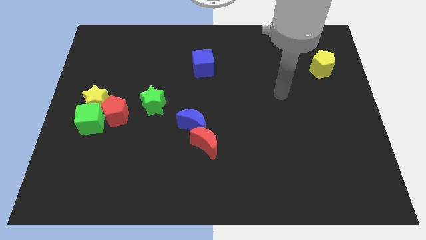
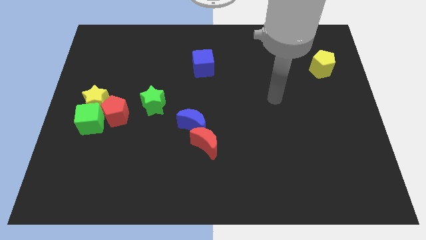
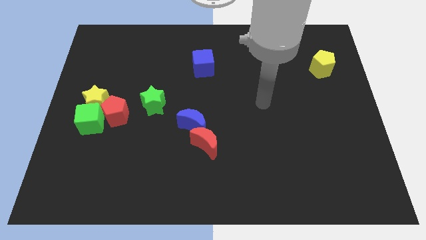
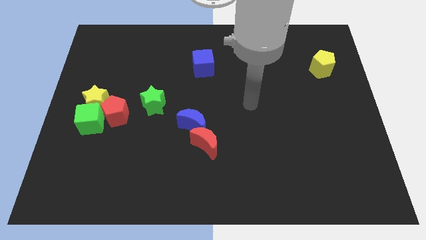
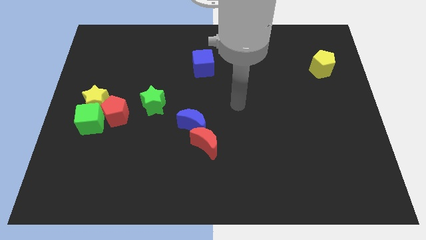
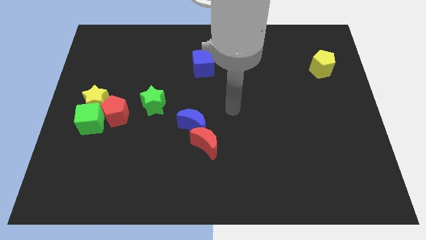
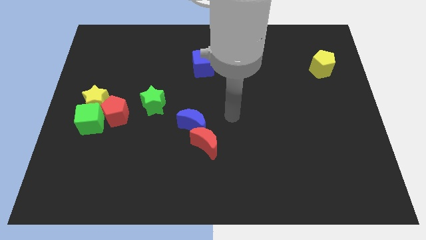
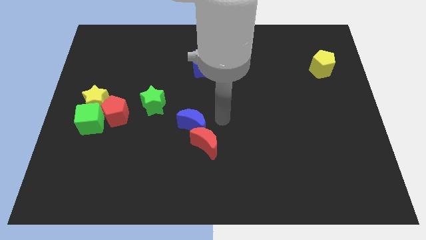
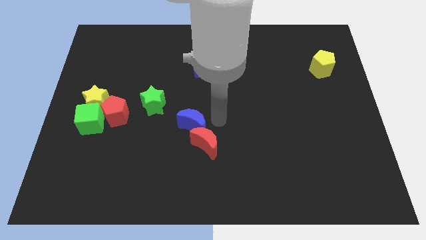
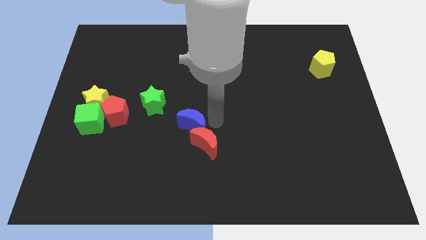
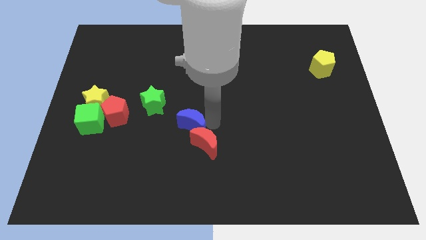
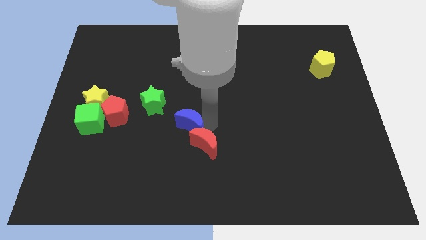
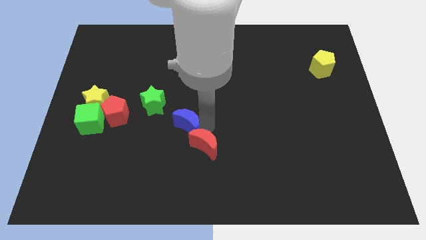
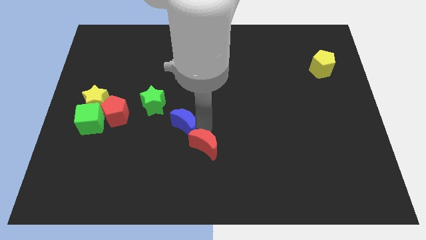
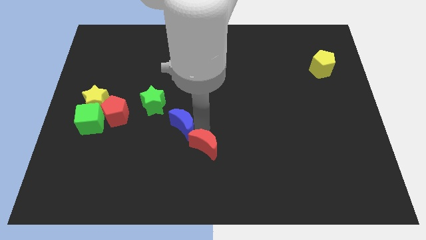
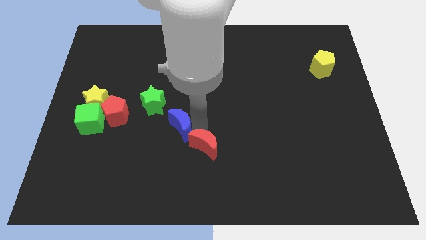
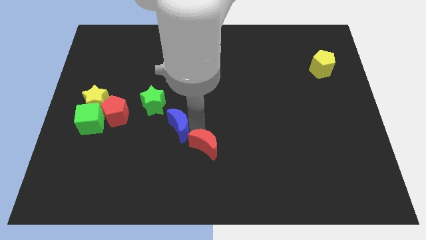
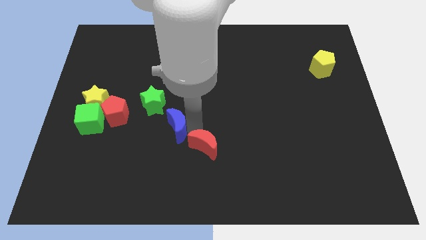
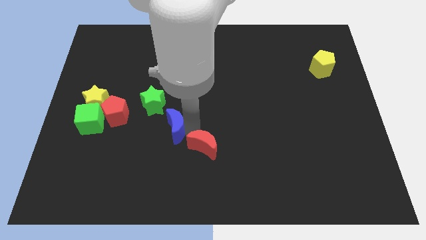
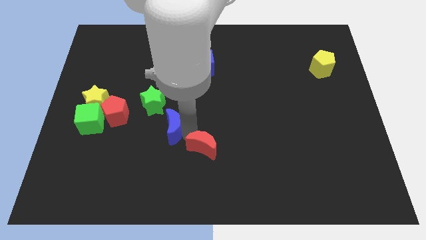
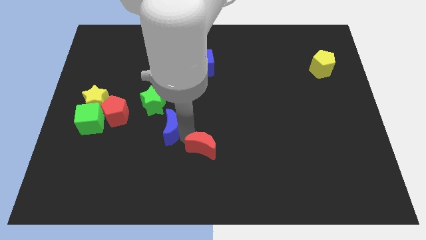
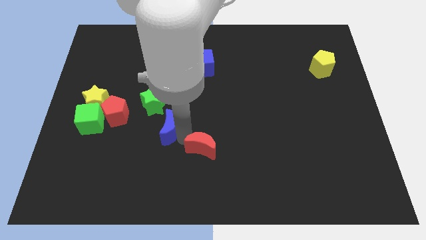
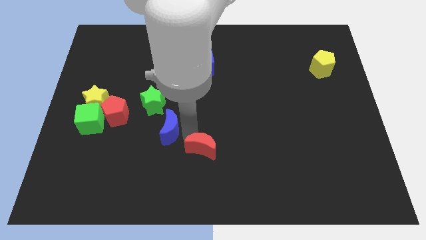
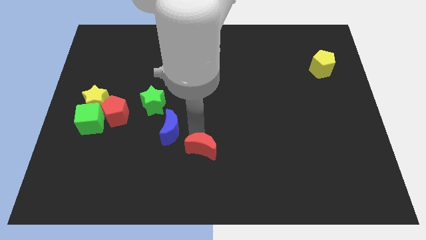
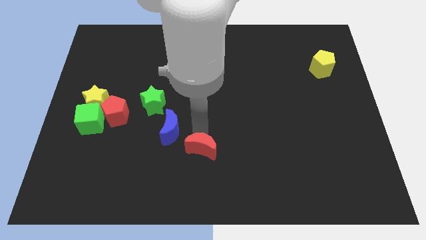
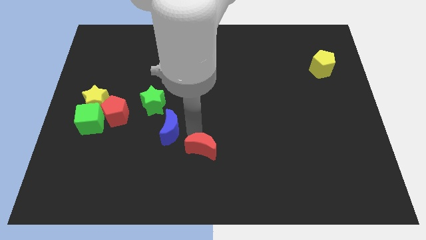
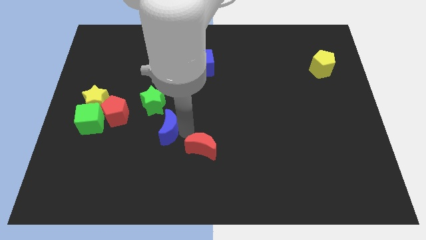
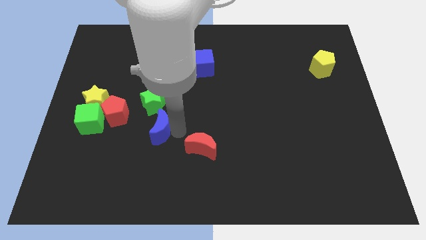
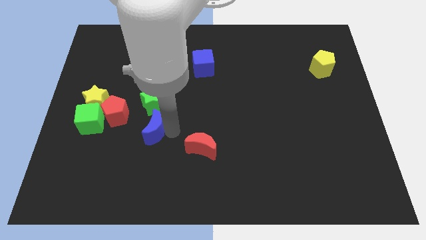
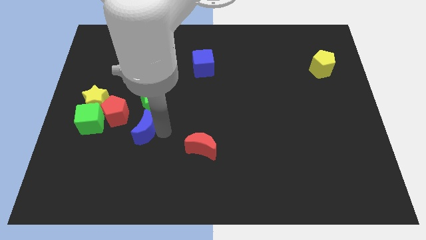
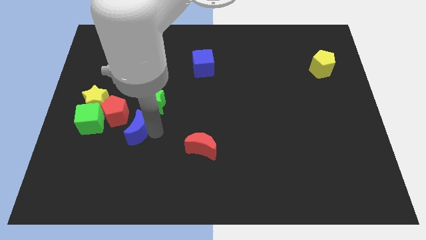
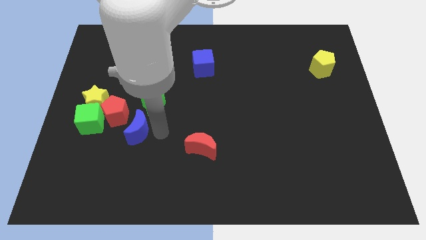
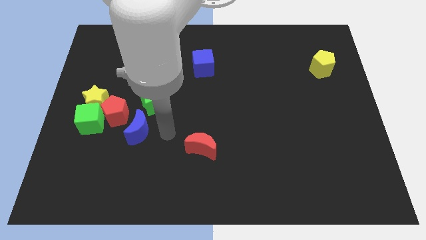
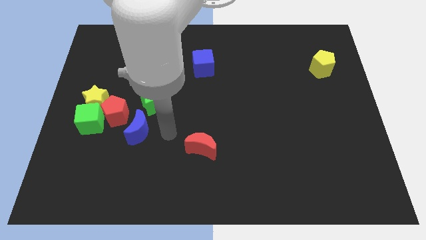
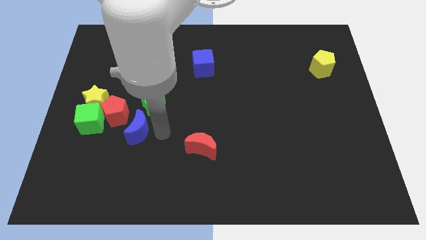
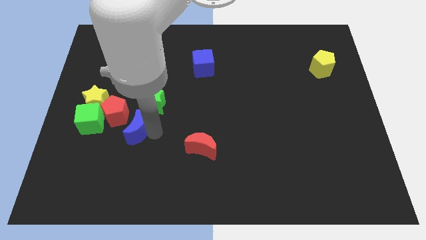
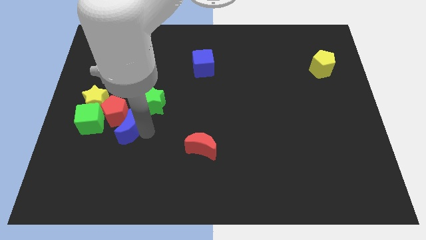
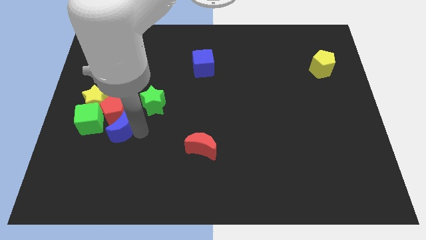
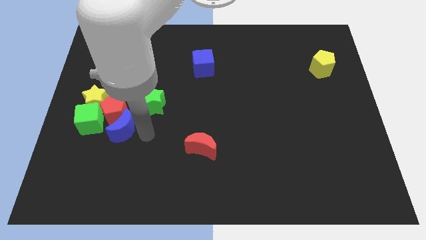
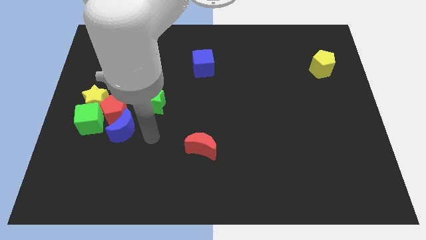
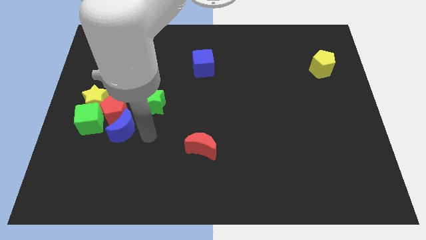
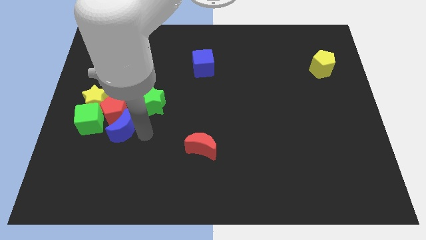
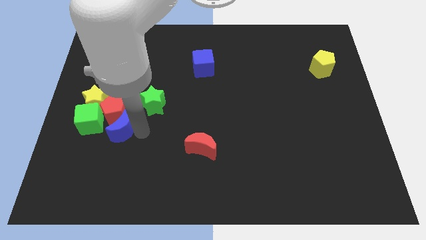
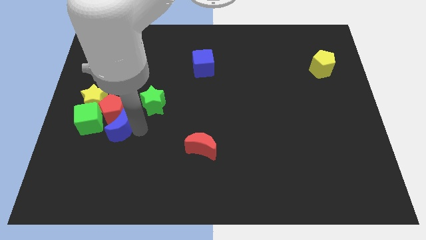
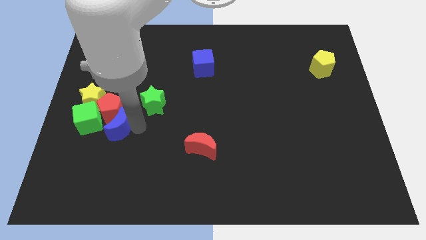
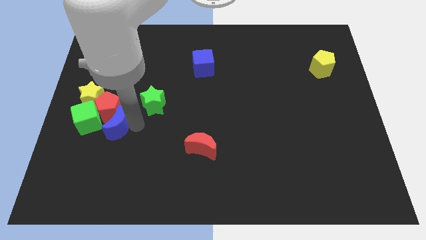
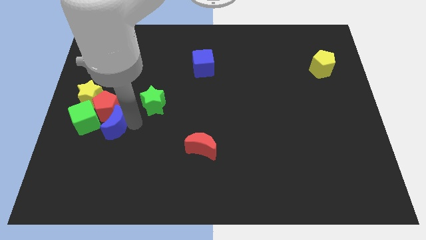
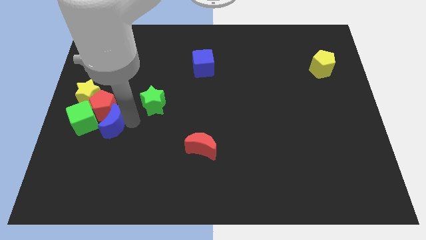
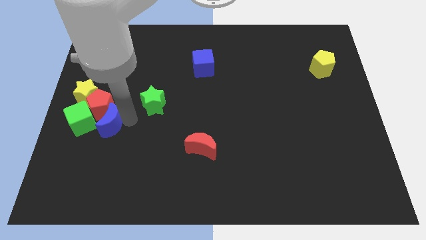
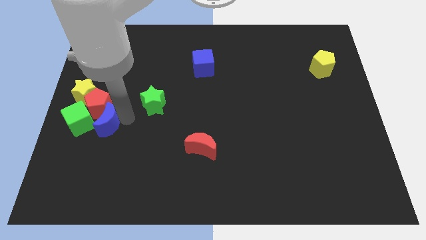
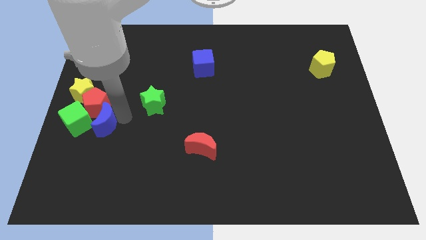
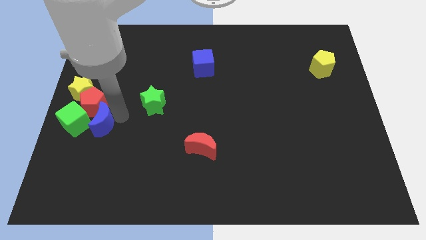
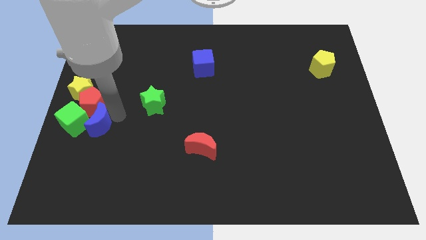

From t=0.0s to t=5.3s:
slide the blue moon towards the green cube
